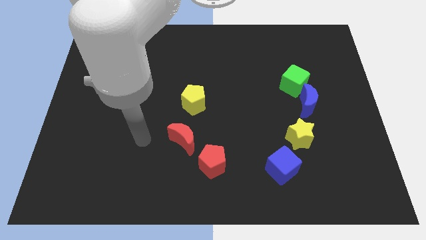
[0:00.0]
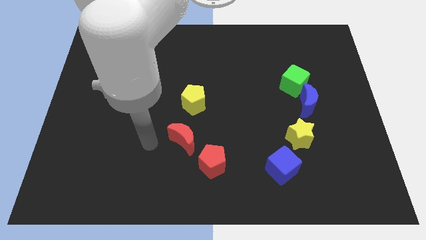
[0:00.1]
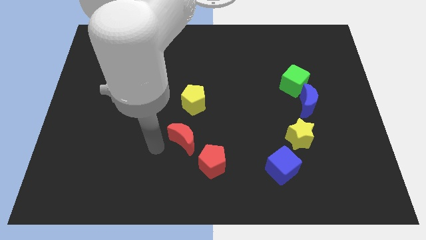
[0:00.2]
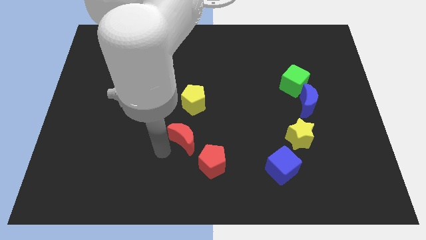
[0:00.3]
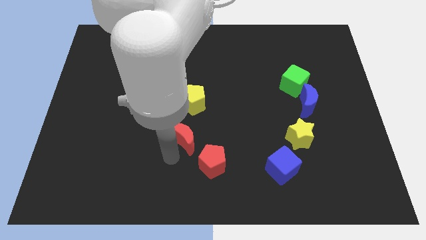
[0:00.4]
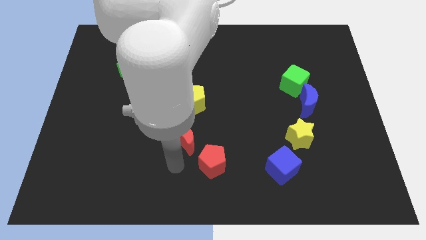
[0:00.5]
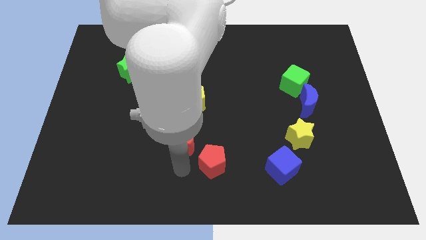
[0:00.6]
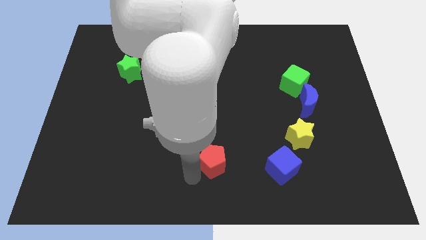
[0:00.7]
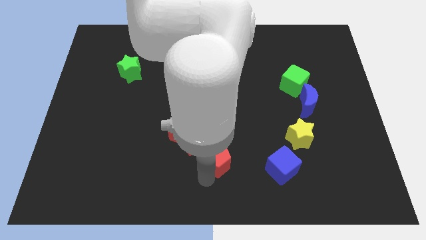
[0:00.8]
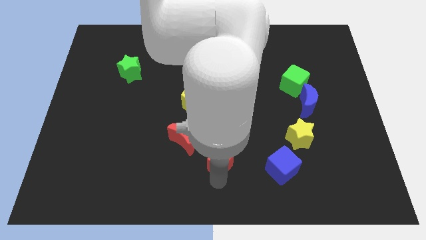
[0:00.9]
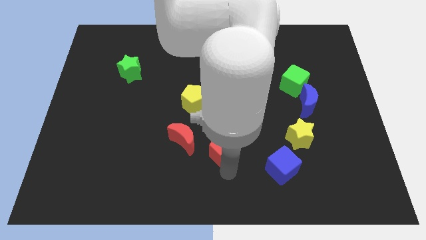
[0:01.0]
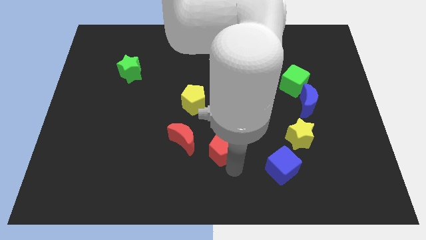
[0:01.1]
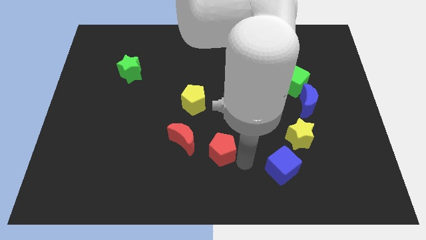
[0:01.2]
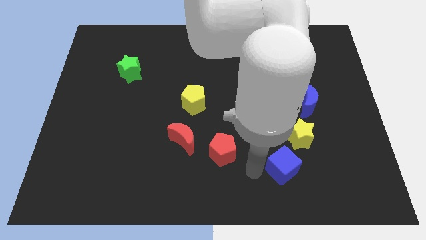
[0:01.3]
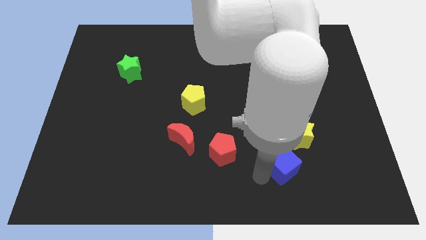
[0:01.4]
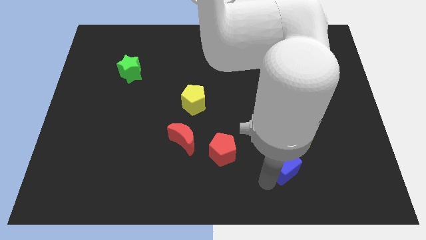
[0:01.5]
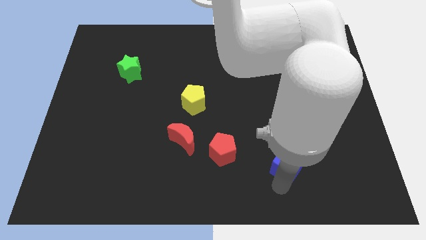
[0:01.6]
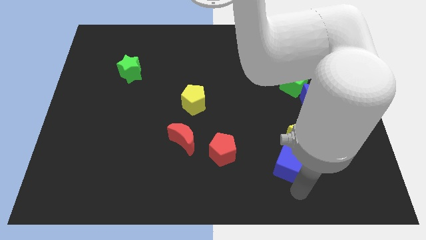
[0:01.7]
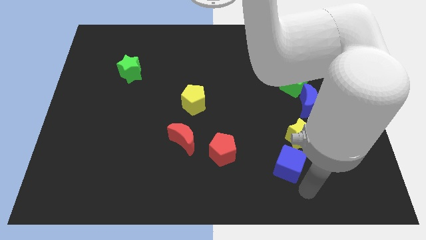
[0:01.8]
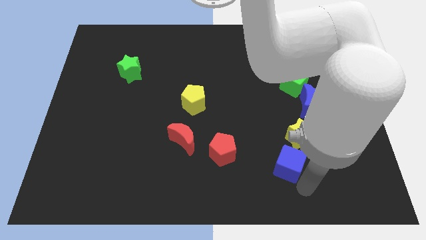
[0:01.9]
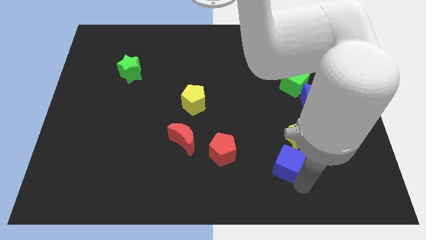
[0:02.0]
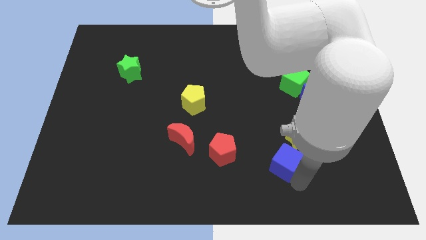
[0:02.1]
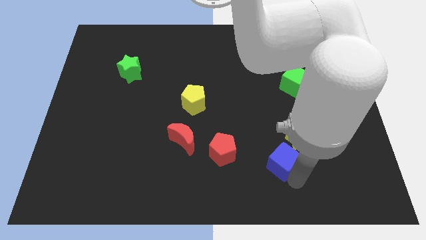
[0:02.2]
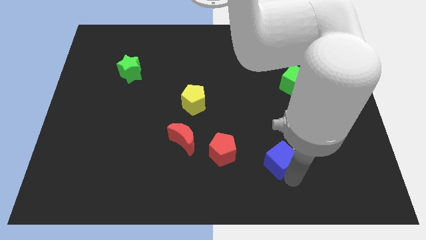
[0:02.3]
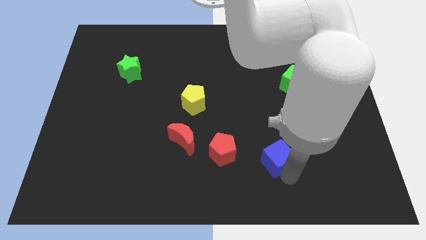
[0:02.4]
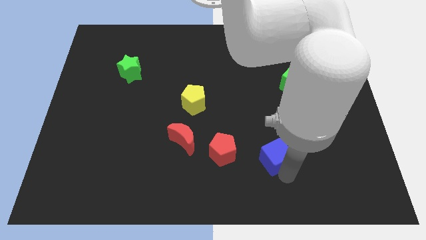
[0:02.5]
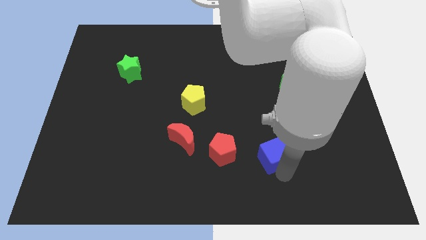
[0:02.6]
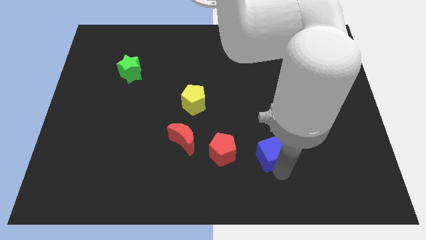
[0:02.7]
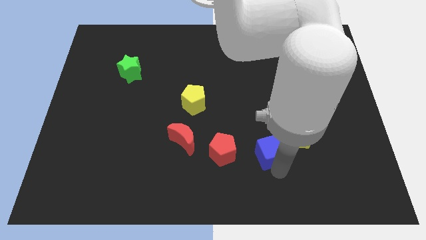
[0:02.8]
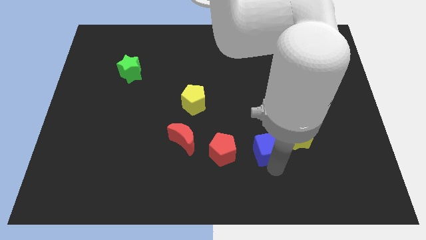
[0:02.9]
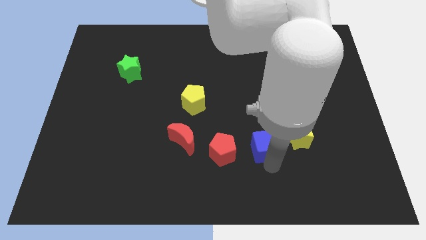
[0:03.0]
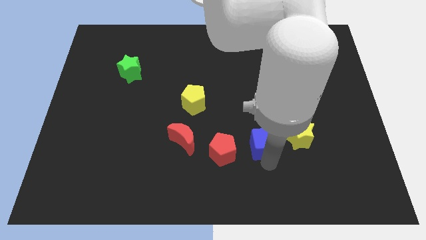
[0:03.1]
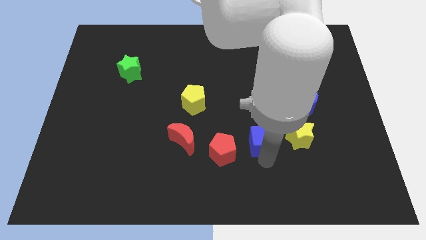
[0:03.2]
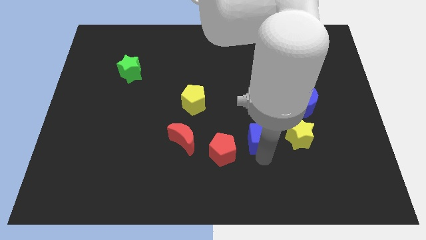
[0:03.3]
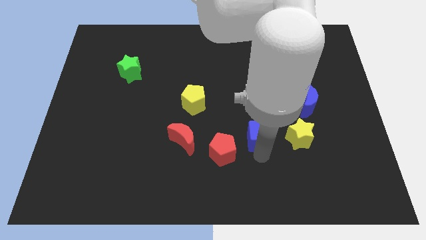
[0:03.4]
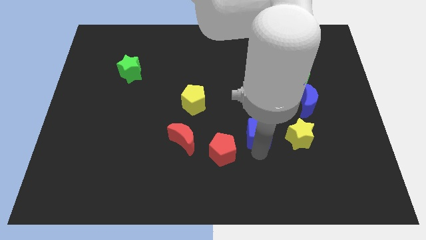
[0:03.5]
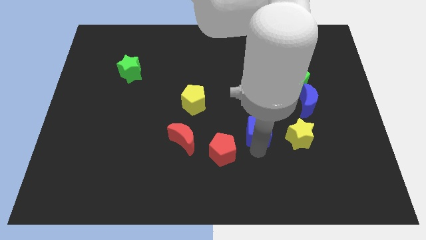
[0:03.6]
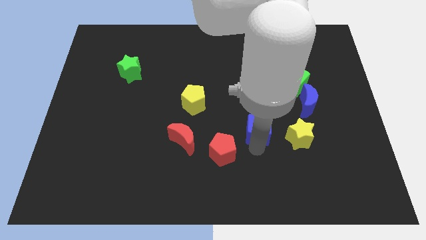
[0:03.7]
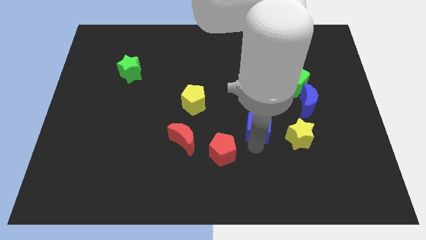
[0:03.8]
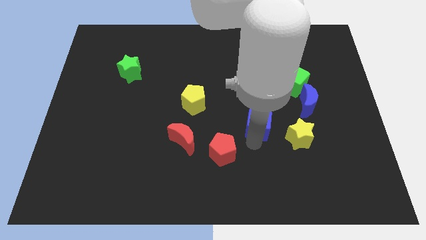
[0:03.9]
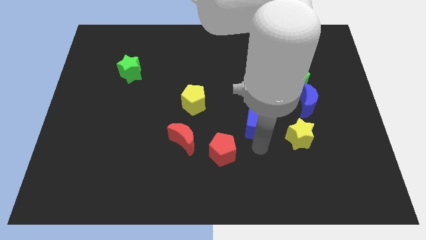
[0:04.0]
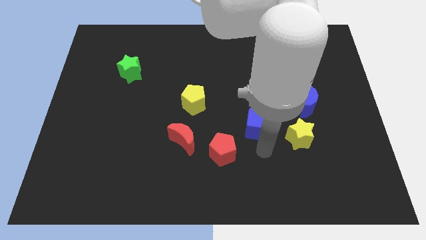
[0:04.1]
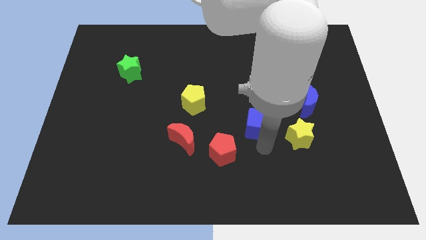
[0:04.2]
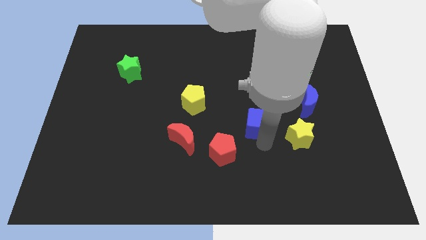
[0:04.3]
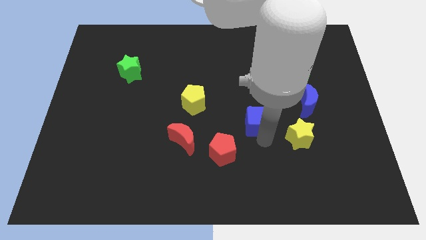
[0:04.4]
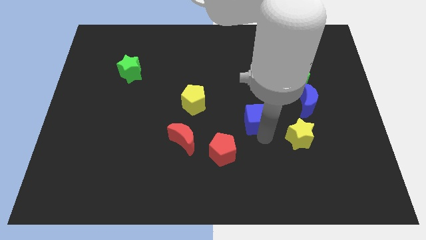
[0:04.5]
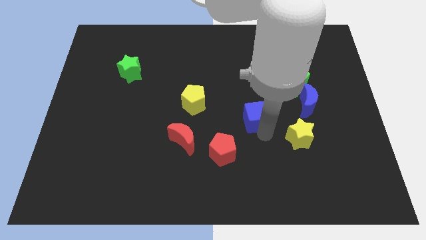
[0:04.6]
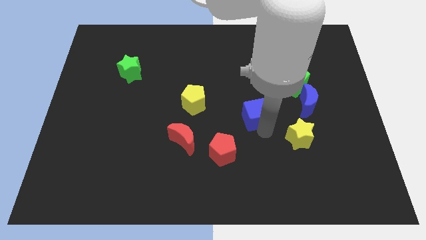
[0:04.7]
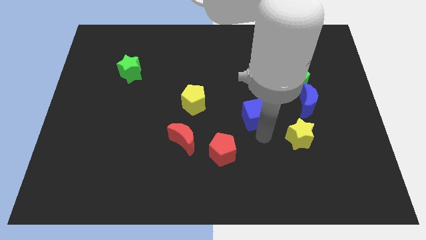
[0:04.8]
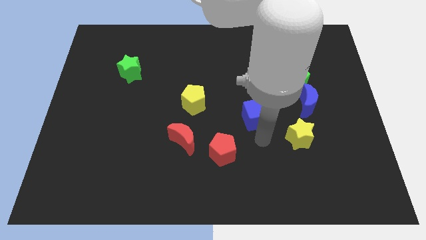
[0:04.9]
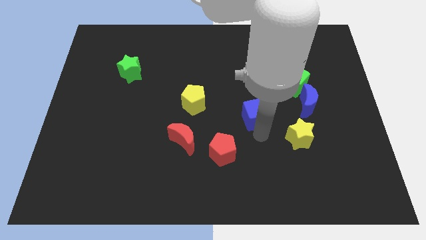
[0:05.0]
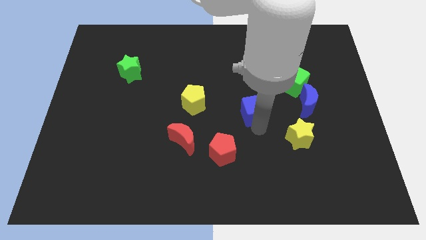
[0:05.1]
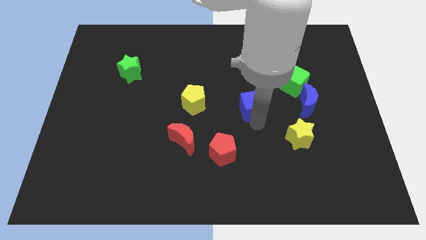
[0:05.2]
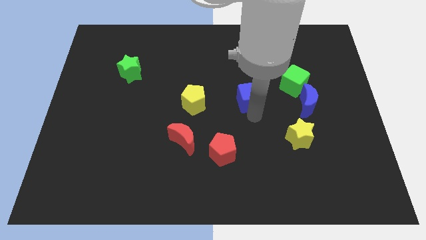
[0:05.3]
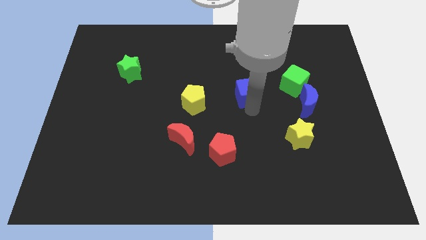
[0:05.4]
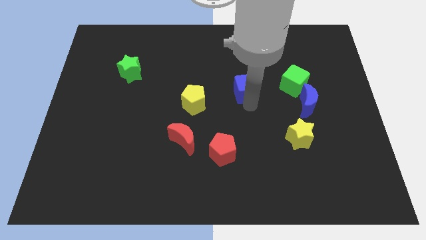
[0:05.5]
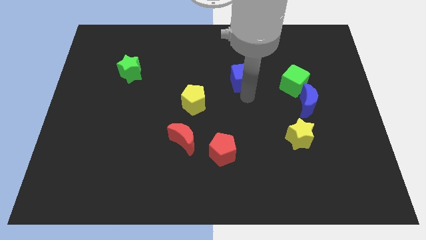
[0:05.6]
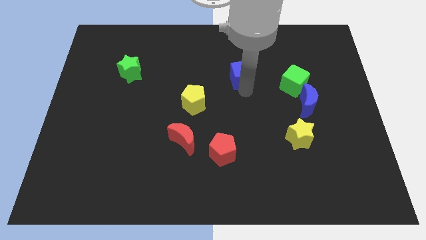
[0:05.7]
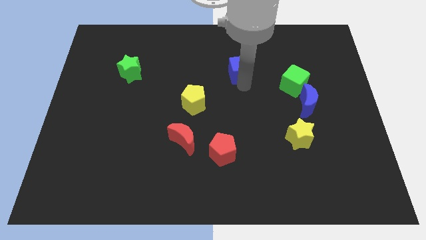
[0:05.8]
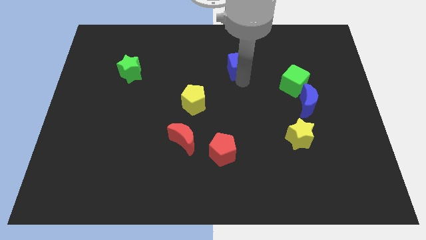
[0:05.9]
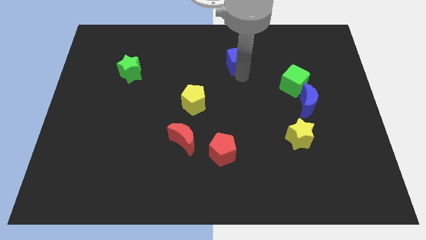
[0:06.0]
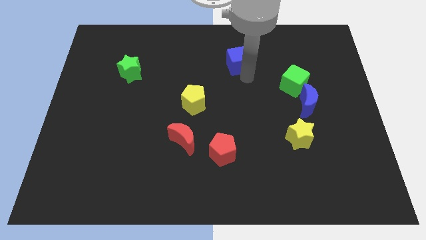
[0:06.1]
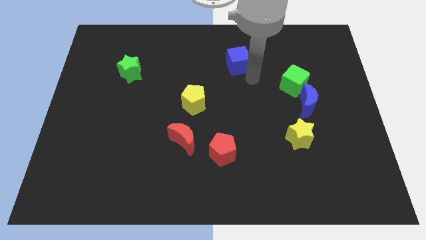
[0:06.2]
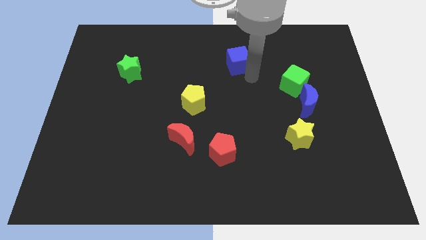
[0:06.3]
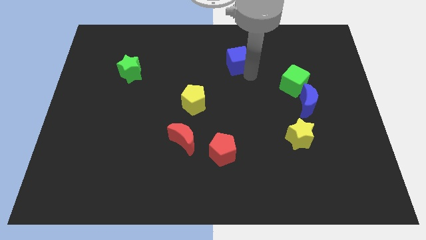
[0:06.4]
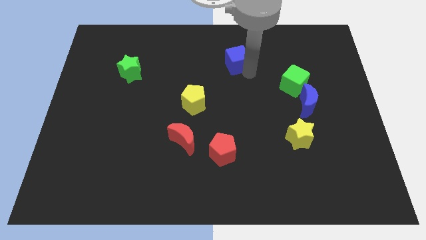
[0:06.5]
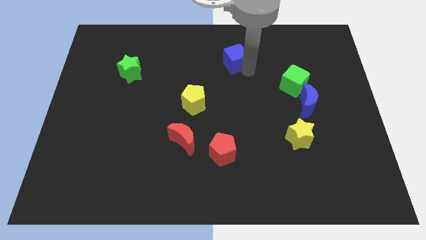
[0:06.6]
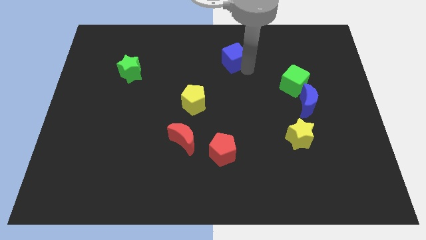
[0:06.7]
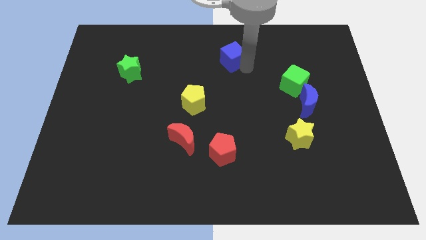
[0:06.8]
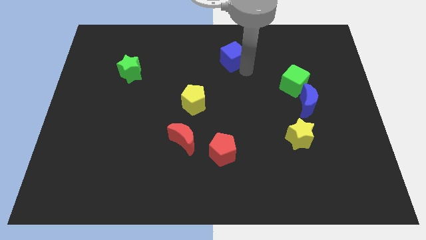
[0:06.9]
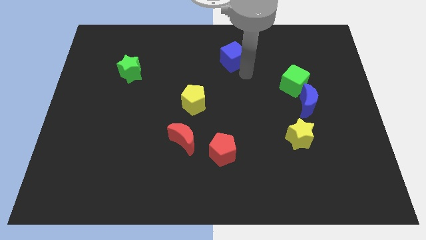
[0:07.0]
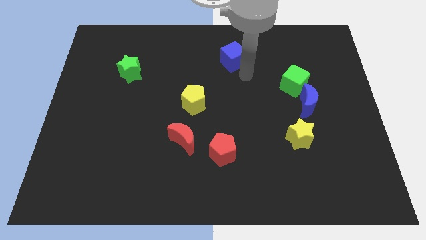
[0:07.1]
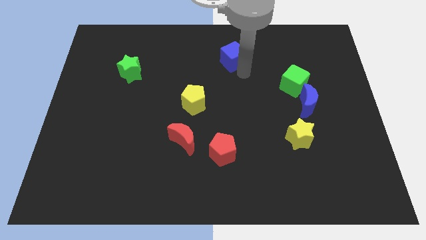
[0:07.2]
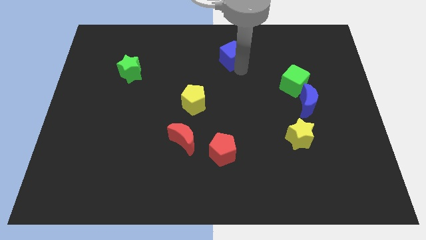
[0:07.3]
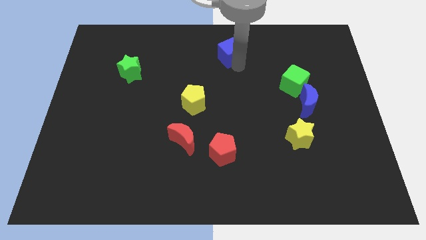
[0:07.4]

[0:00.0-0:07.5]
slide the blue cube to the towards your base
